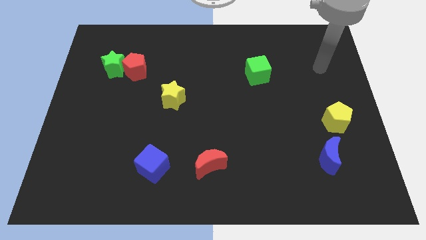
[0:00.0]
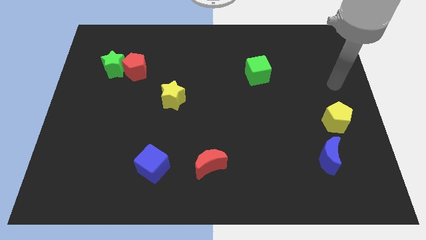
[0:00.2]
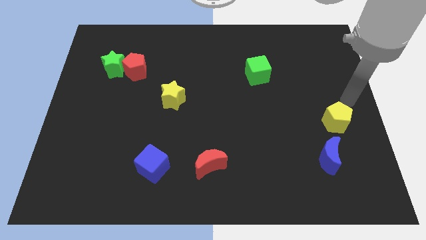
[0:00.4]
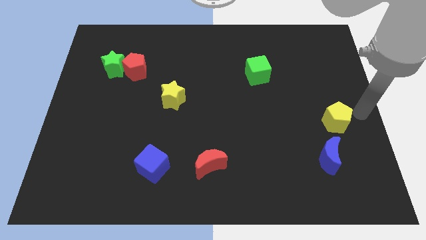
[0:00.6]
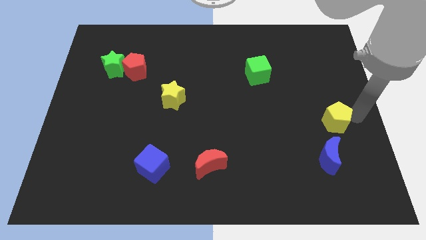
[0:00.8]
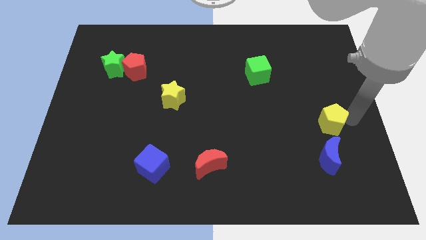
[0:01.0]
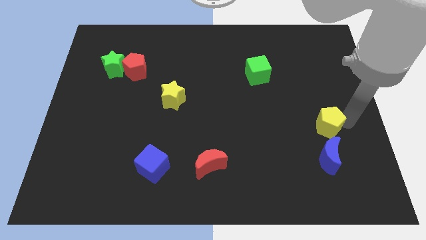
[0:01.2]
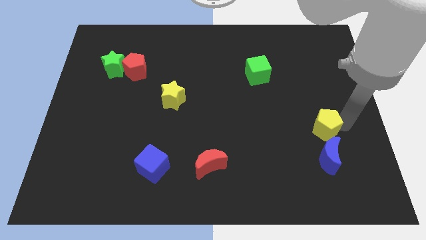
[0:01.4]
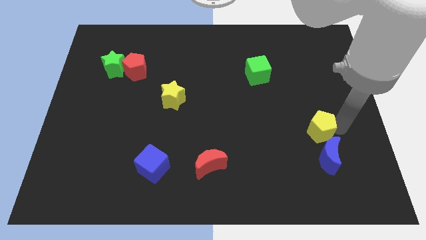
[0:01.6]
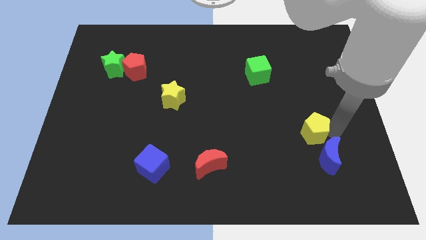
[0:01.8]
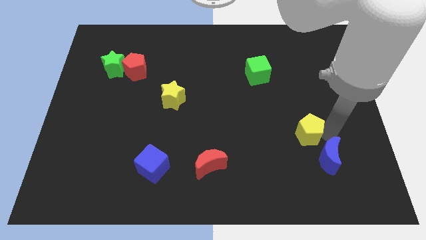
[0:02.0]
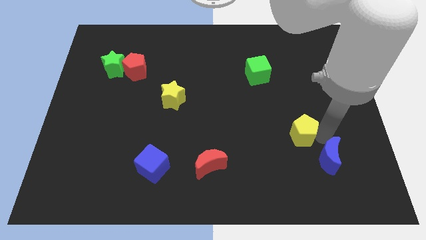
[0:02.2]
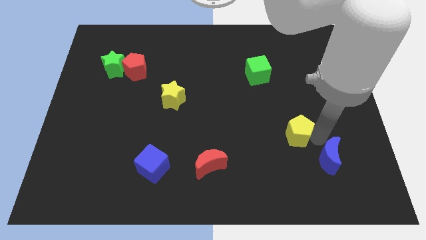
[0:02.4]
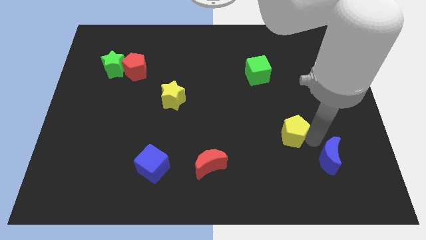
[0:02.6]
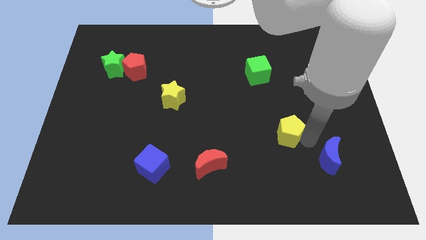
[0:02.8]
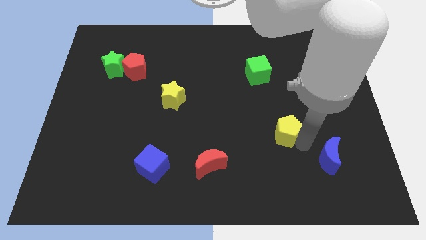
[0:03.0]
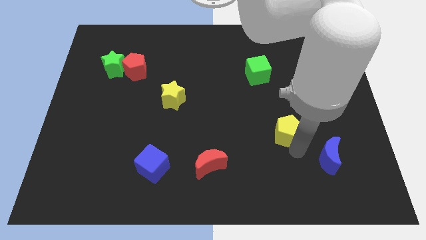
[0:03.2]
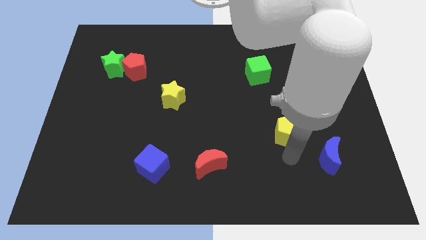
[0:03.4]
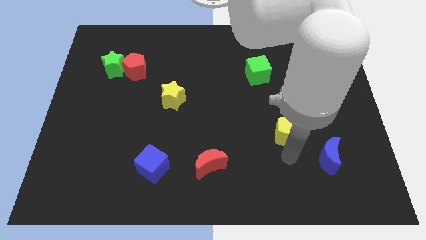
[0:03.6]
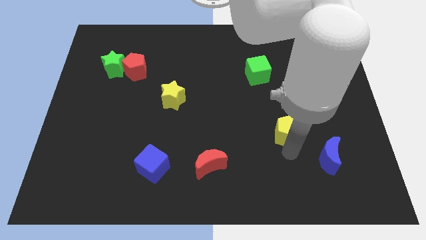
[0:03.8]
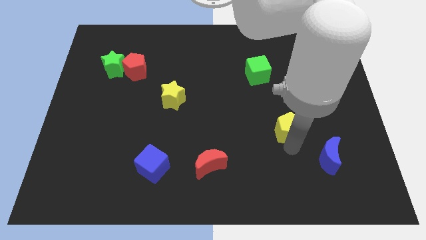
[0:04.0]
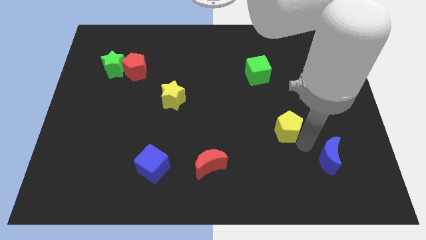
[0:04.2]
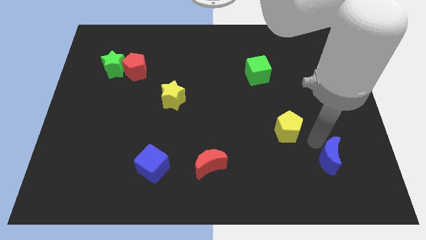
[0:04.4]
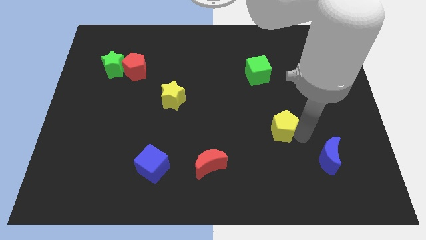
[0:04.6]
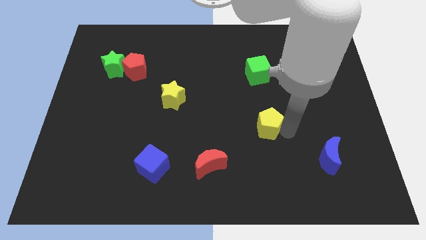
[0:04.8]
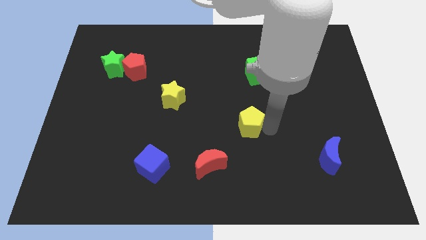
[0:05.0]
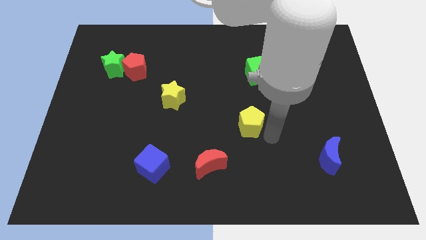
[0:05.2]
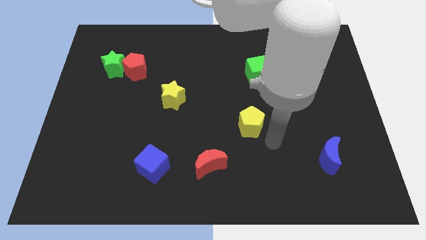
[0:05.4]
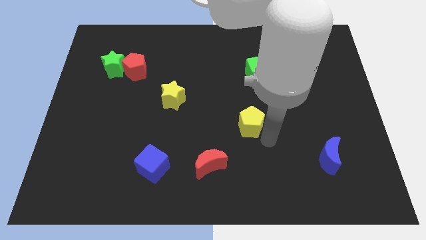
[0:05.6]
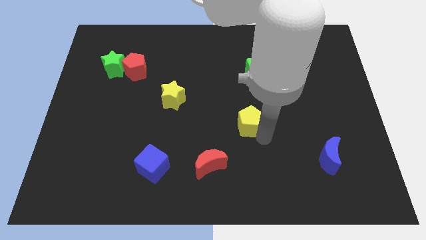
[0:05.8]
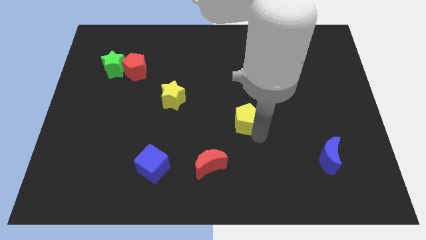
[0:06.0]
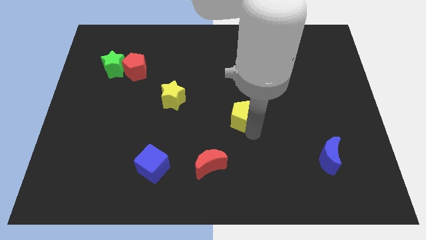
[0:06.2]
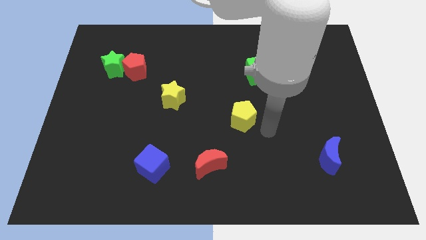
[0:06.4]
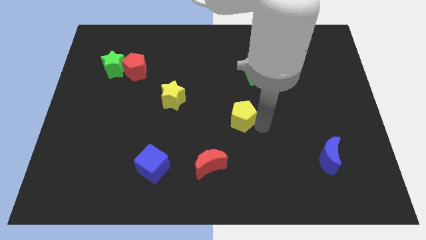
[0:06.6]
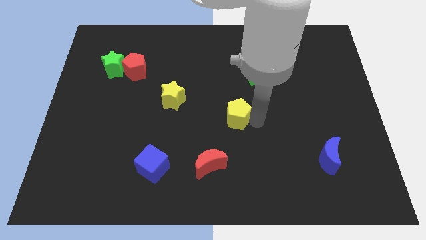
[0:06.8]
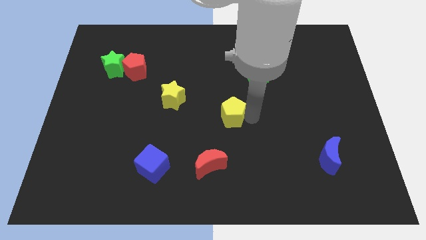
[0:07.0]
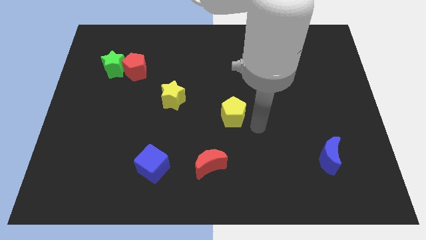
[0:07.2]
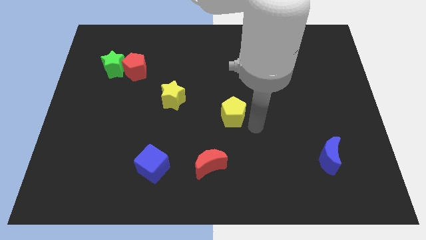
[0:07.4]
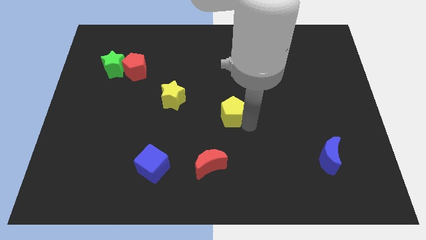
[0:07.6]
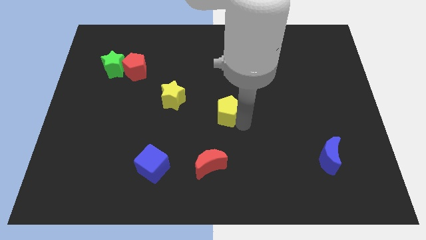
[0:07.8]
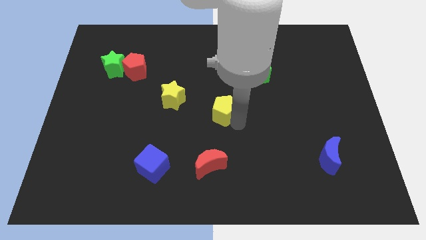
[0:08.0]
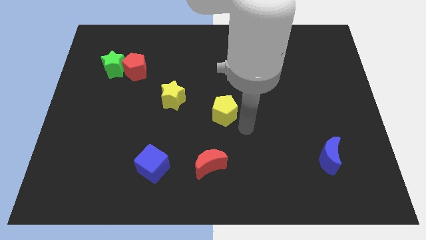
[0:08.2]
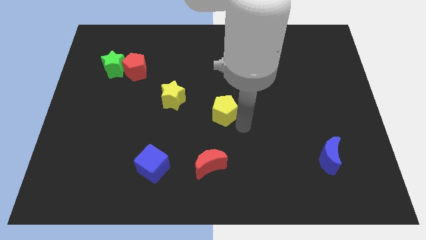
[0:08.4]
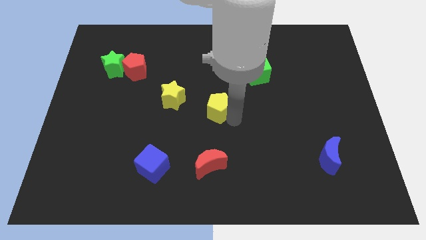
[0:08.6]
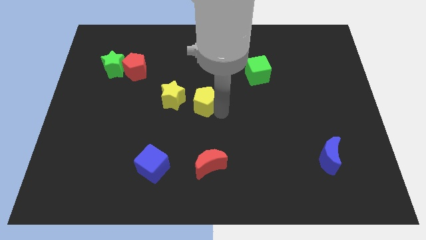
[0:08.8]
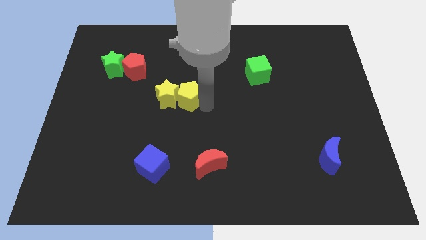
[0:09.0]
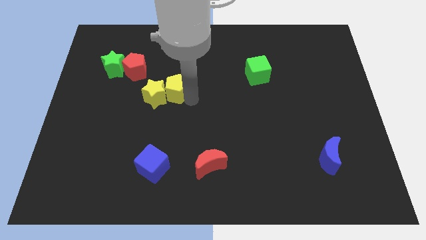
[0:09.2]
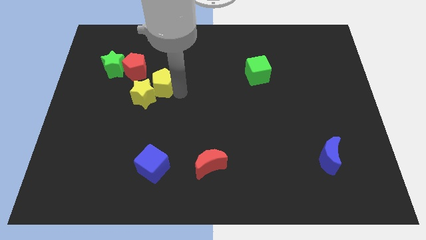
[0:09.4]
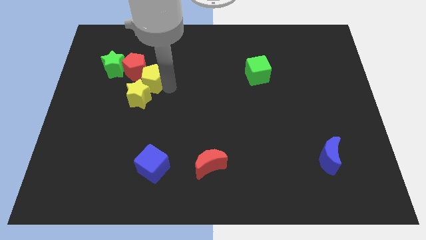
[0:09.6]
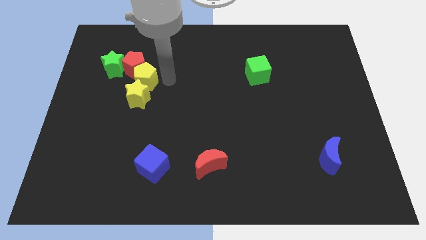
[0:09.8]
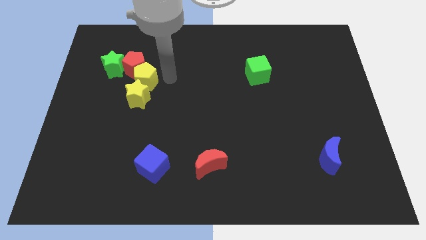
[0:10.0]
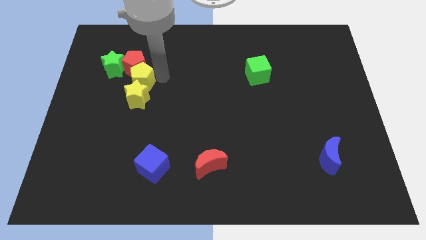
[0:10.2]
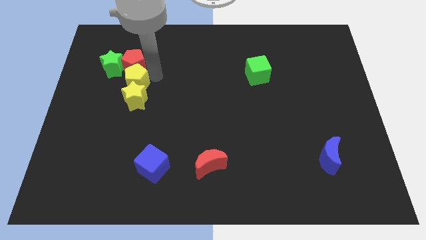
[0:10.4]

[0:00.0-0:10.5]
slide the yellow pentagon to the bottom left of the red pentagon

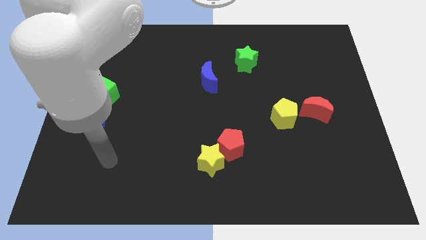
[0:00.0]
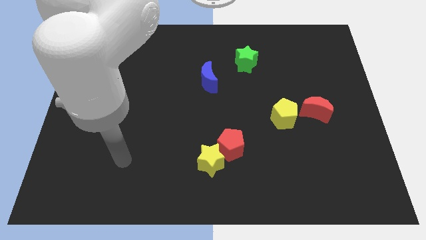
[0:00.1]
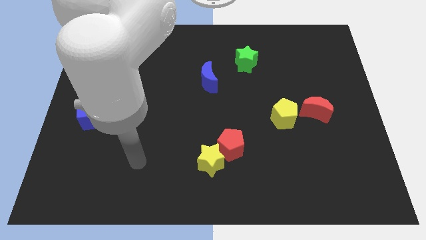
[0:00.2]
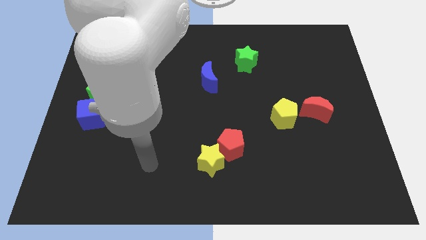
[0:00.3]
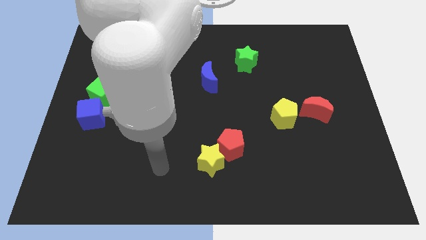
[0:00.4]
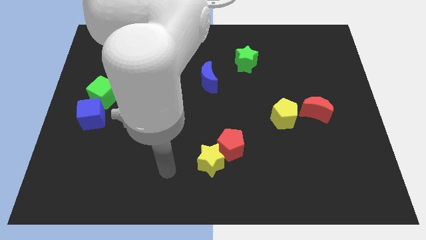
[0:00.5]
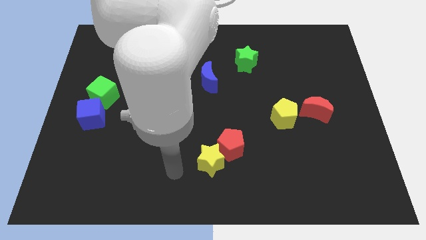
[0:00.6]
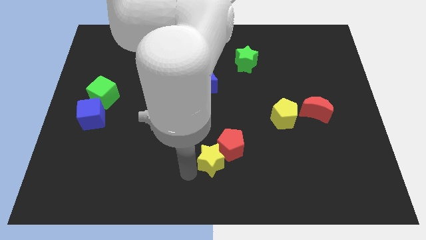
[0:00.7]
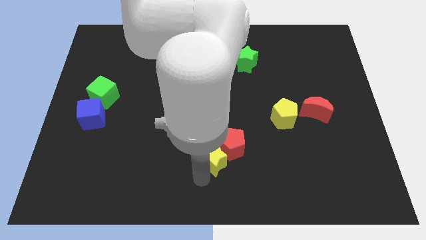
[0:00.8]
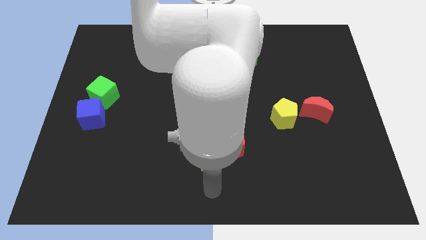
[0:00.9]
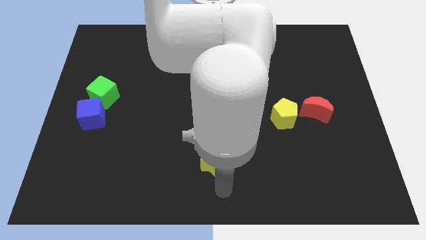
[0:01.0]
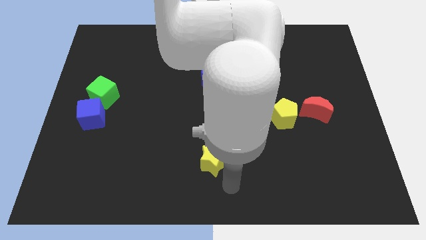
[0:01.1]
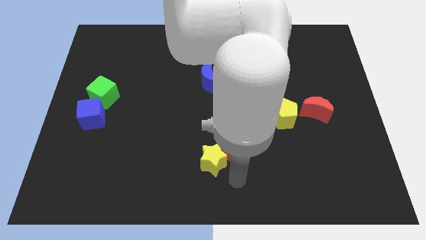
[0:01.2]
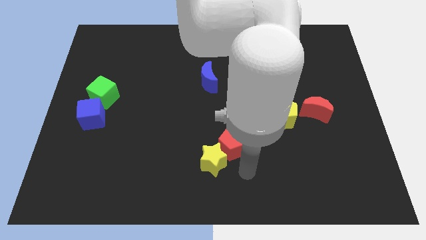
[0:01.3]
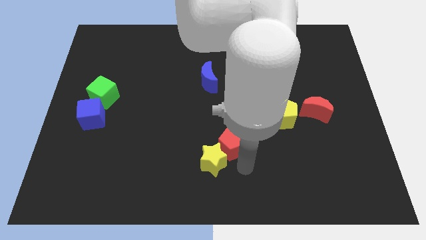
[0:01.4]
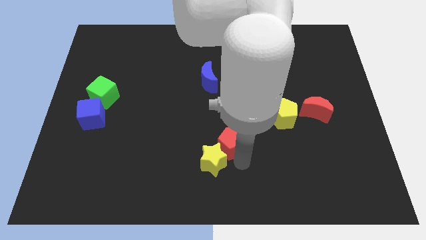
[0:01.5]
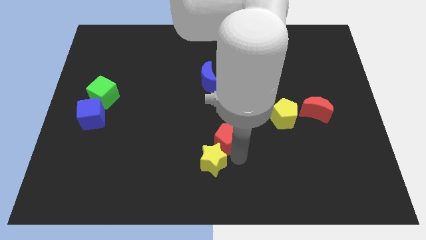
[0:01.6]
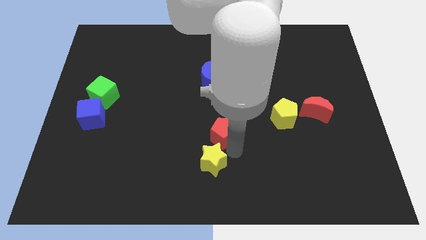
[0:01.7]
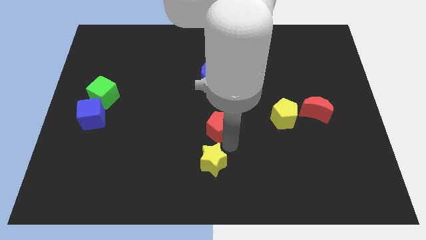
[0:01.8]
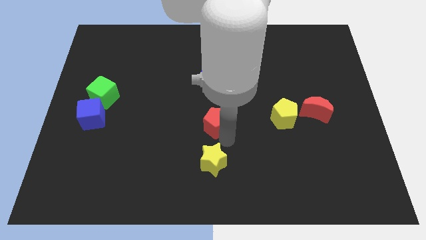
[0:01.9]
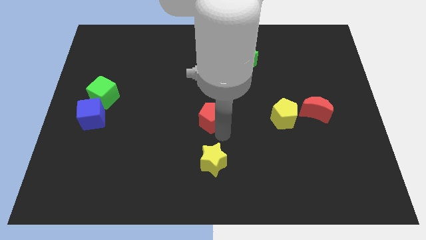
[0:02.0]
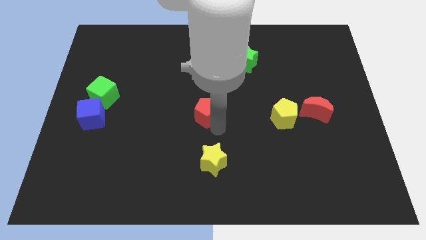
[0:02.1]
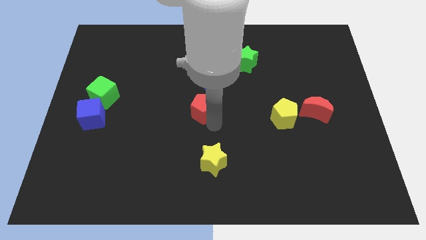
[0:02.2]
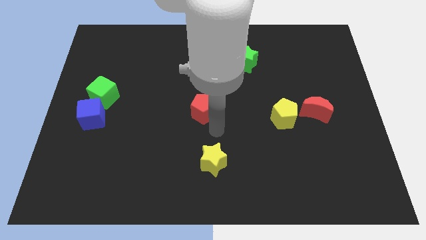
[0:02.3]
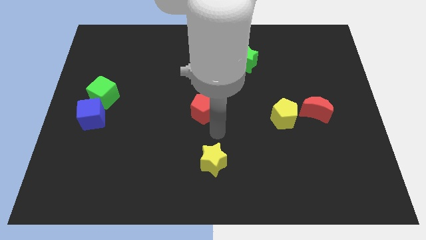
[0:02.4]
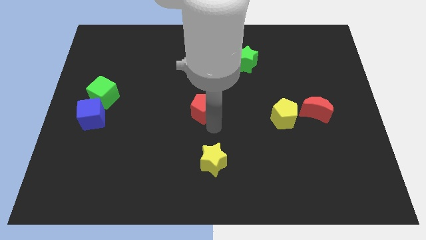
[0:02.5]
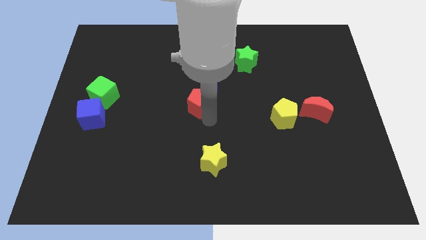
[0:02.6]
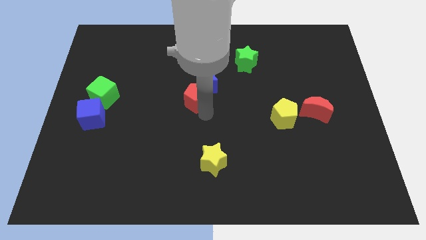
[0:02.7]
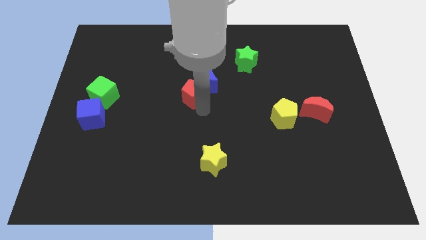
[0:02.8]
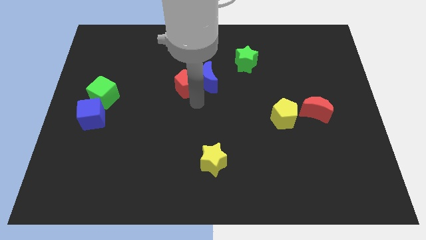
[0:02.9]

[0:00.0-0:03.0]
slide the red pentagon to the top left of the blue moon
